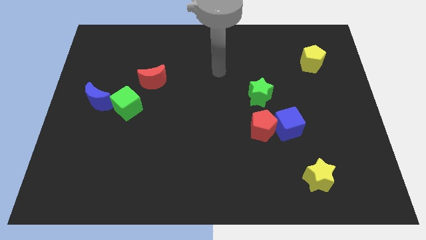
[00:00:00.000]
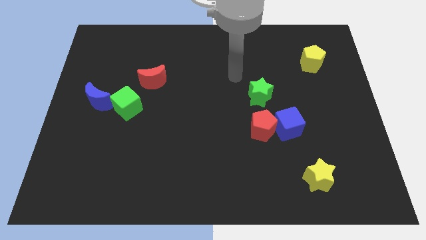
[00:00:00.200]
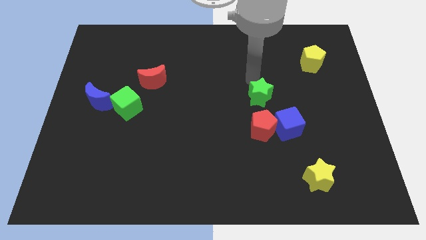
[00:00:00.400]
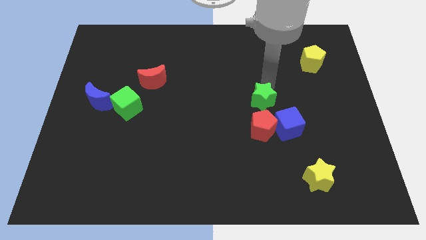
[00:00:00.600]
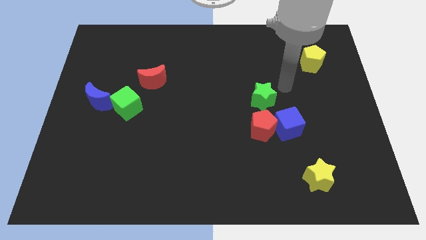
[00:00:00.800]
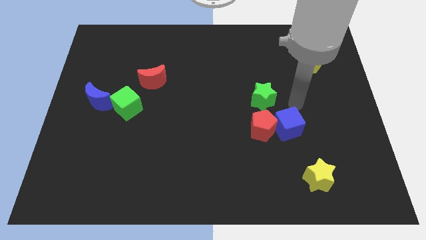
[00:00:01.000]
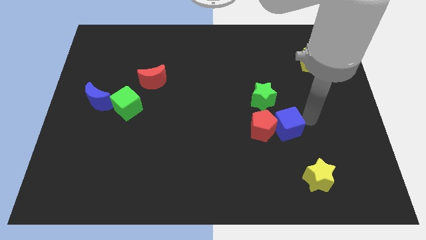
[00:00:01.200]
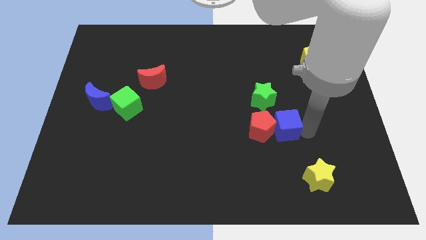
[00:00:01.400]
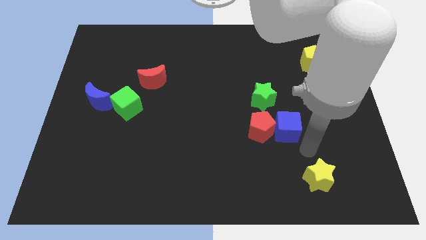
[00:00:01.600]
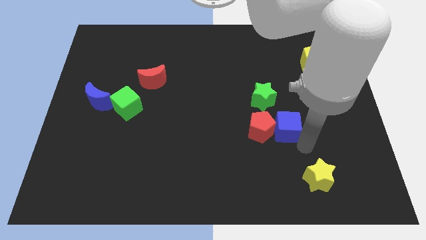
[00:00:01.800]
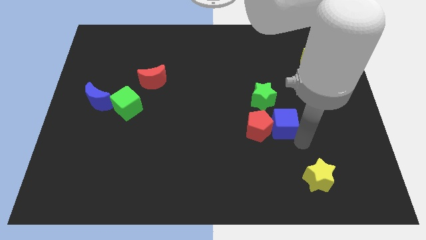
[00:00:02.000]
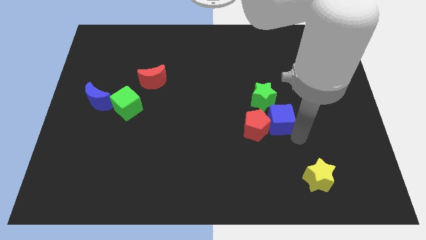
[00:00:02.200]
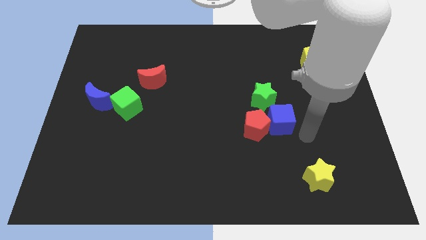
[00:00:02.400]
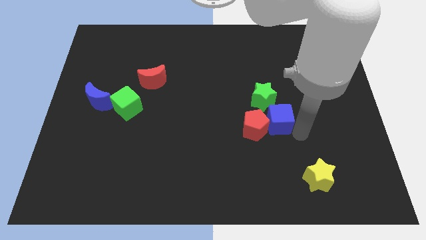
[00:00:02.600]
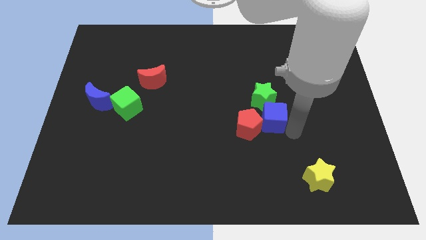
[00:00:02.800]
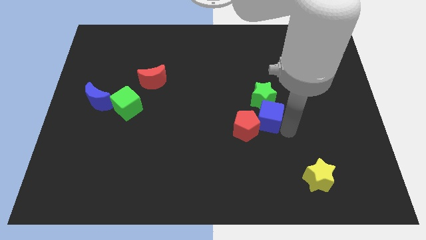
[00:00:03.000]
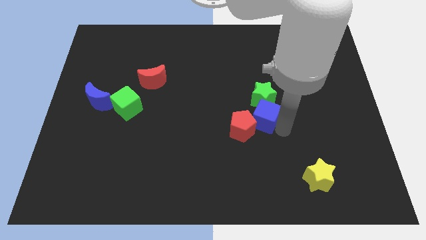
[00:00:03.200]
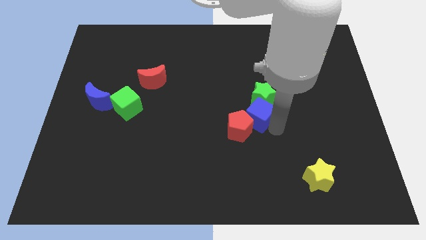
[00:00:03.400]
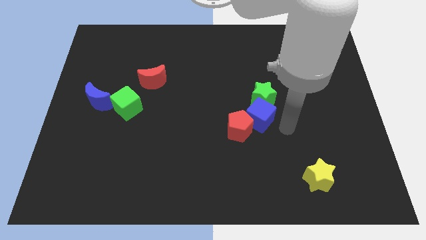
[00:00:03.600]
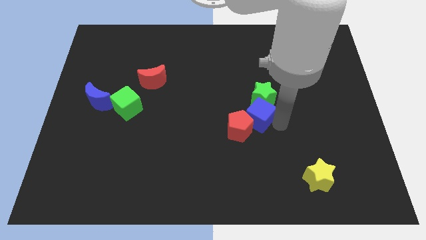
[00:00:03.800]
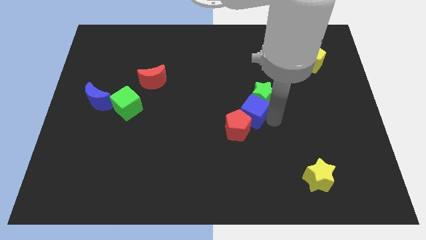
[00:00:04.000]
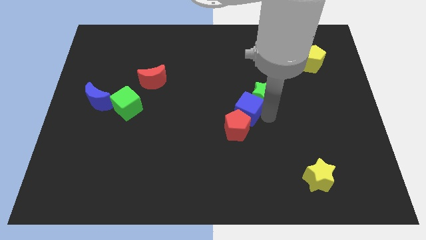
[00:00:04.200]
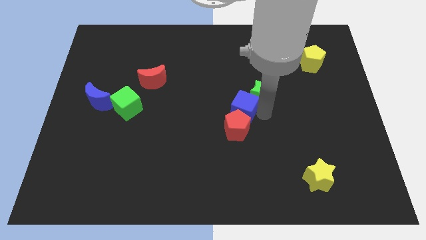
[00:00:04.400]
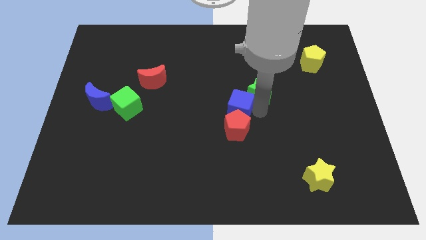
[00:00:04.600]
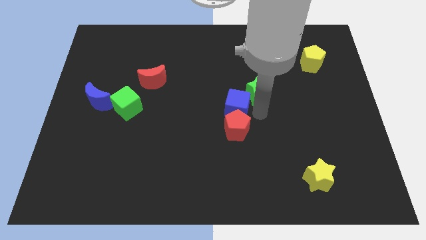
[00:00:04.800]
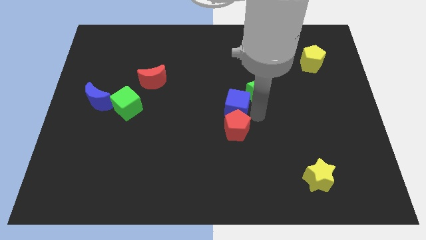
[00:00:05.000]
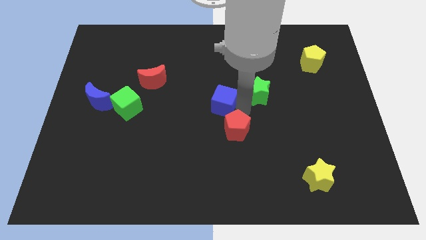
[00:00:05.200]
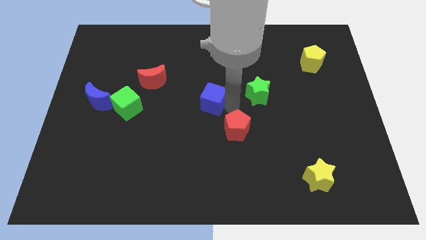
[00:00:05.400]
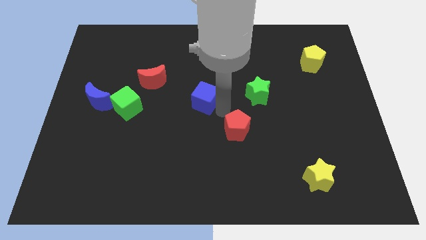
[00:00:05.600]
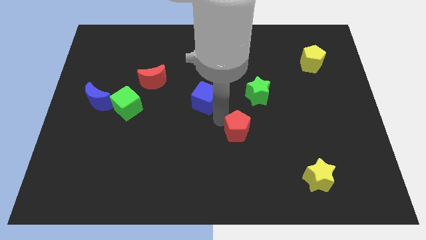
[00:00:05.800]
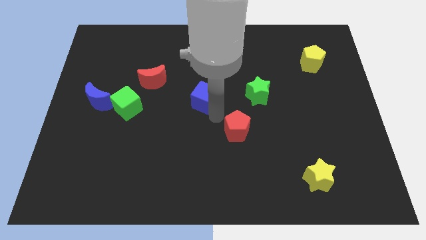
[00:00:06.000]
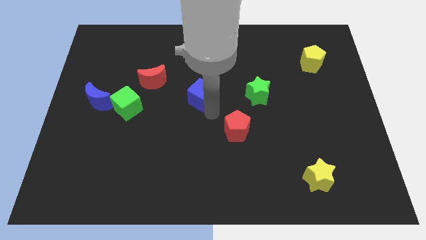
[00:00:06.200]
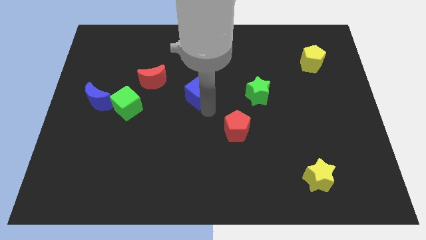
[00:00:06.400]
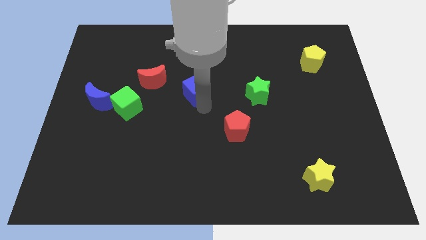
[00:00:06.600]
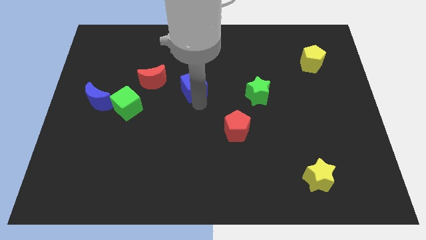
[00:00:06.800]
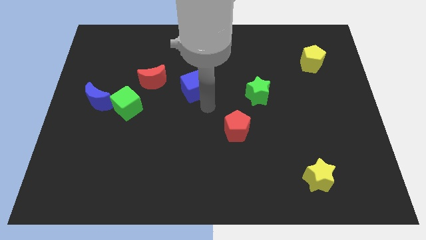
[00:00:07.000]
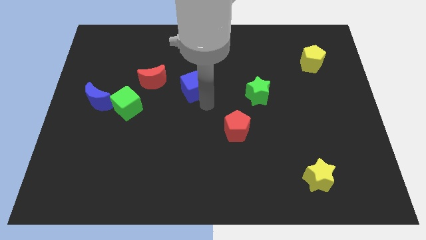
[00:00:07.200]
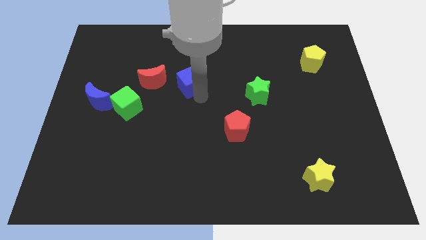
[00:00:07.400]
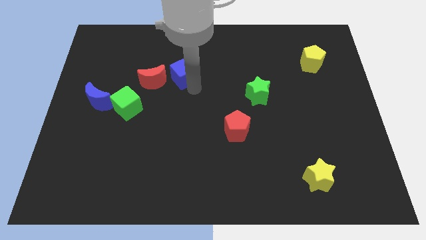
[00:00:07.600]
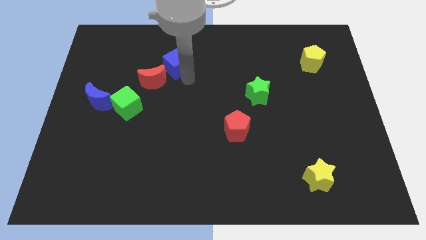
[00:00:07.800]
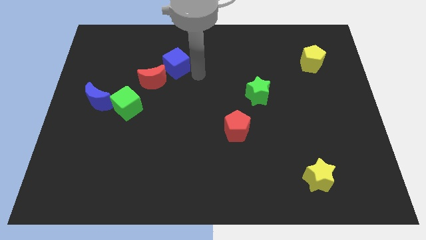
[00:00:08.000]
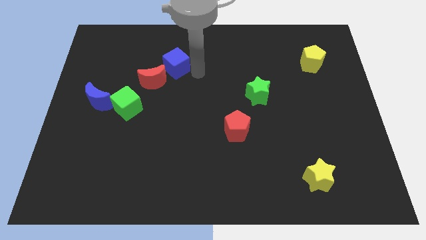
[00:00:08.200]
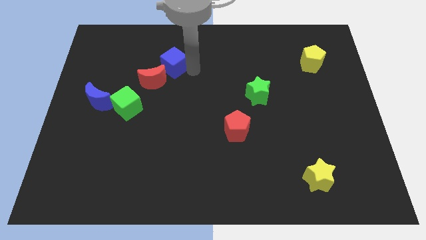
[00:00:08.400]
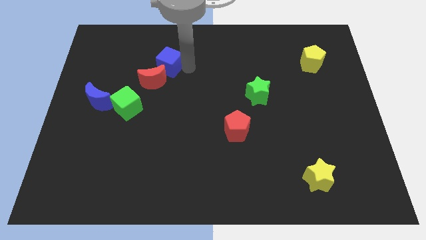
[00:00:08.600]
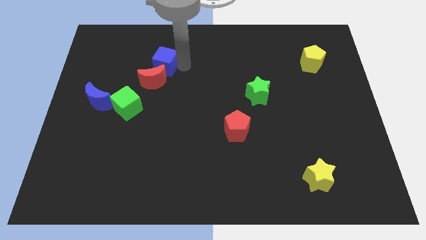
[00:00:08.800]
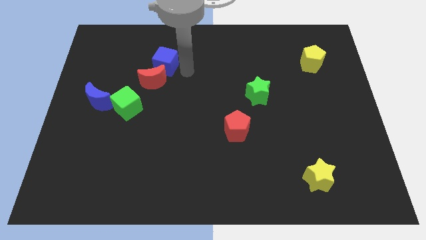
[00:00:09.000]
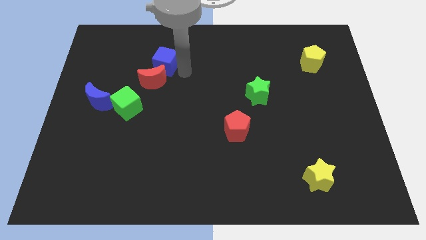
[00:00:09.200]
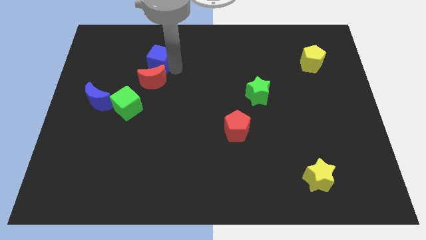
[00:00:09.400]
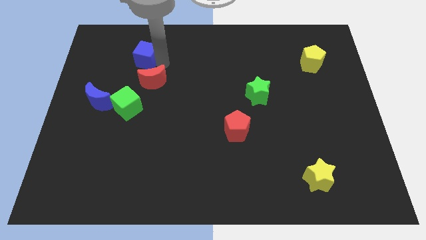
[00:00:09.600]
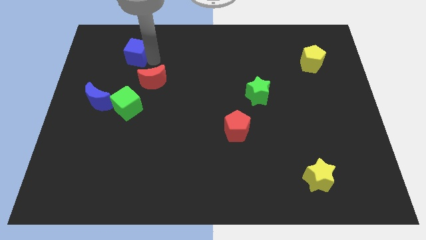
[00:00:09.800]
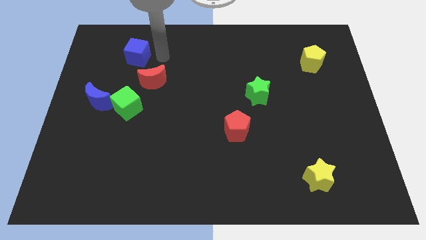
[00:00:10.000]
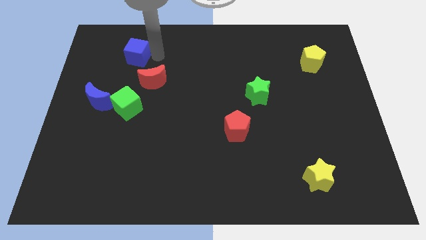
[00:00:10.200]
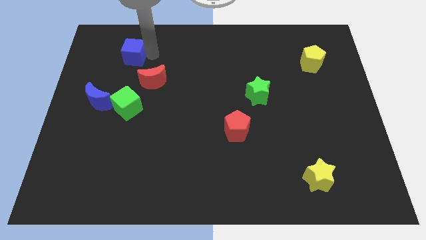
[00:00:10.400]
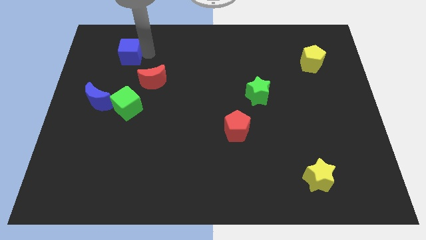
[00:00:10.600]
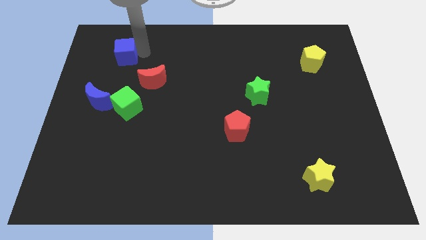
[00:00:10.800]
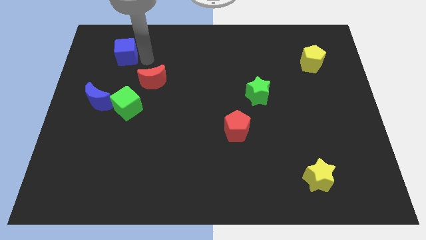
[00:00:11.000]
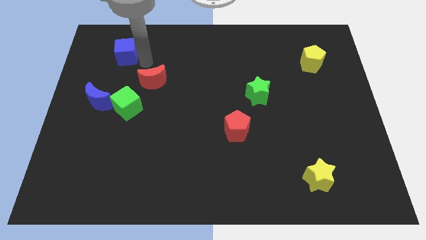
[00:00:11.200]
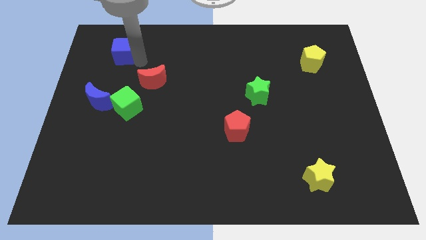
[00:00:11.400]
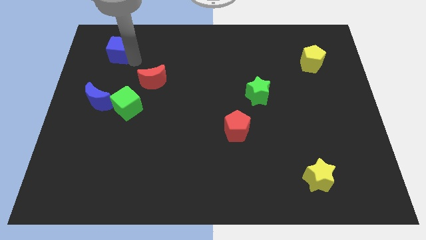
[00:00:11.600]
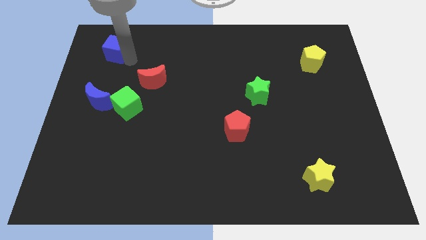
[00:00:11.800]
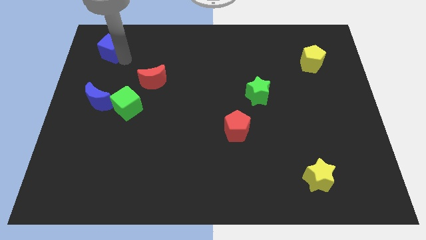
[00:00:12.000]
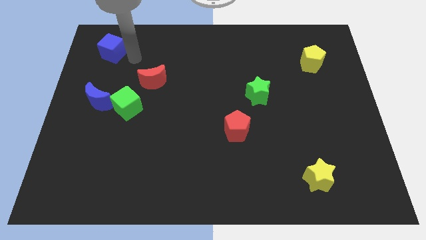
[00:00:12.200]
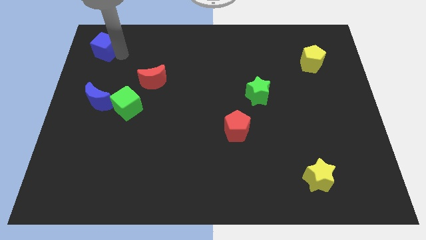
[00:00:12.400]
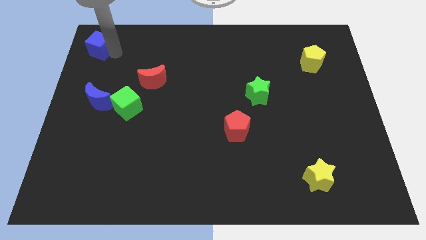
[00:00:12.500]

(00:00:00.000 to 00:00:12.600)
put the blue cube to the top left

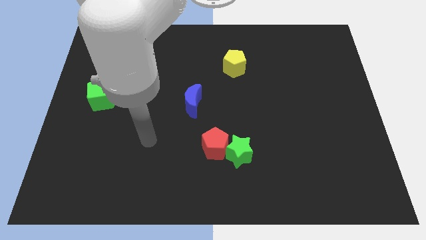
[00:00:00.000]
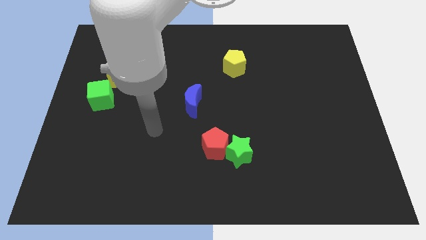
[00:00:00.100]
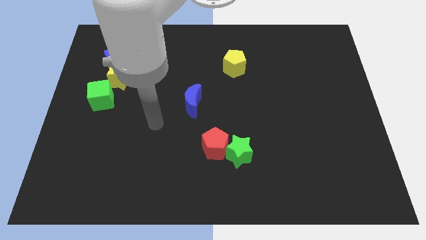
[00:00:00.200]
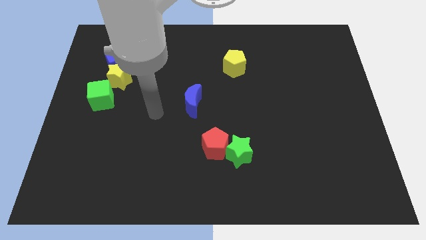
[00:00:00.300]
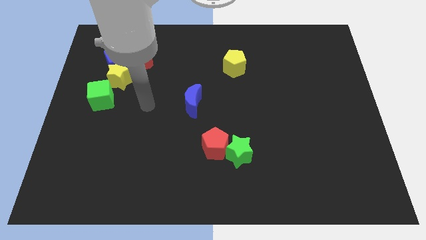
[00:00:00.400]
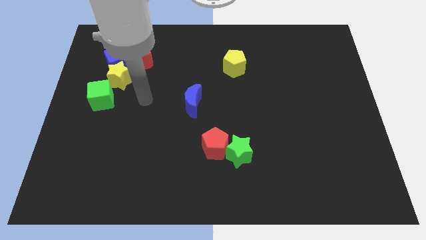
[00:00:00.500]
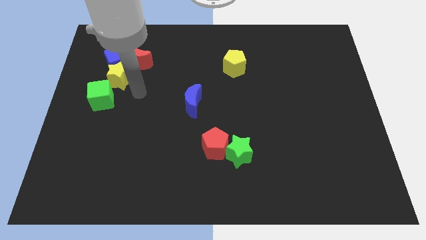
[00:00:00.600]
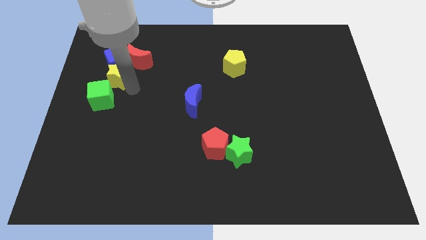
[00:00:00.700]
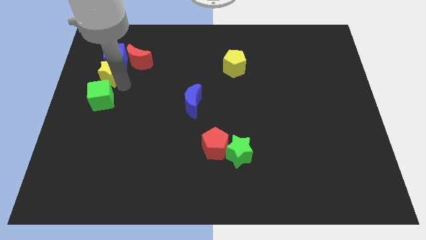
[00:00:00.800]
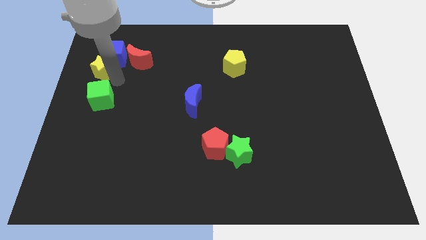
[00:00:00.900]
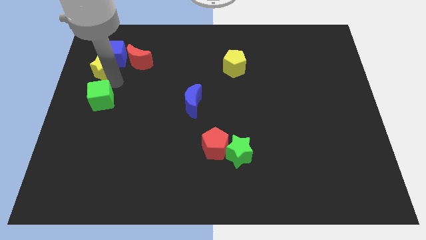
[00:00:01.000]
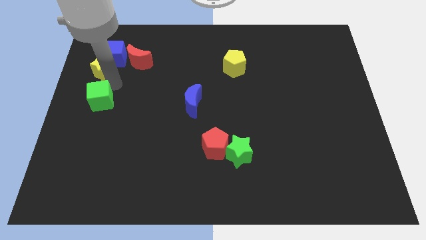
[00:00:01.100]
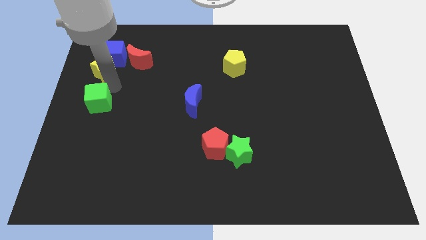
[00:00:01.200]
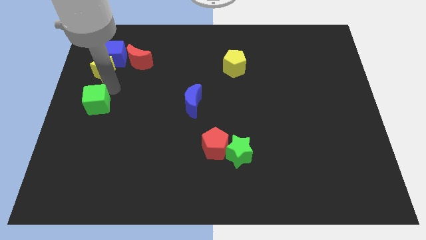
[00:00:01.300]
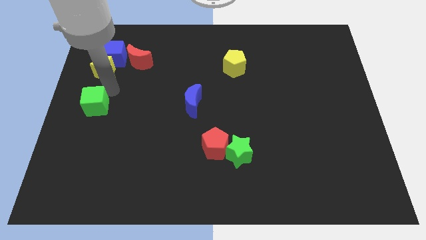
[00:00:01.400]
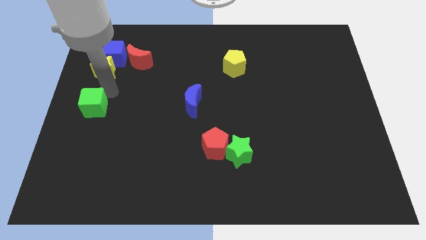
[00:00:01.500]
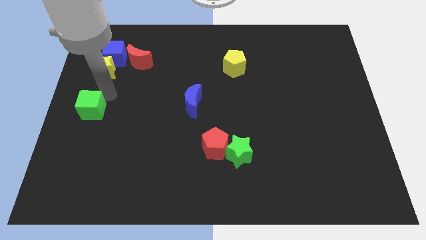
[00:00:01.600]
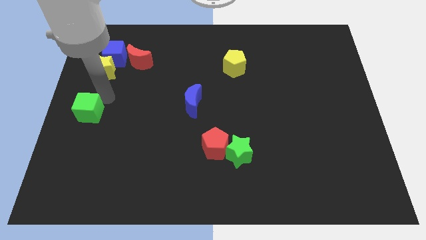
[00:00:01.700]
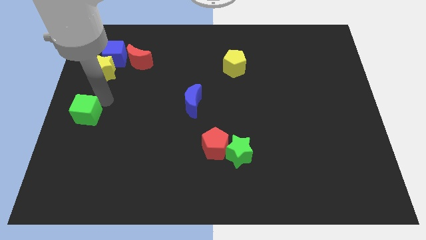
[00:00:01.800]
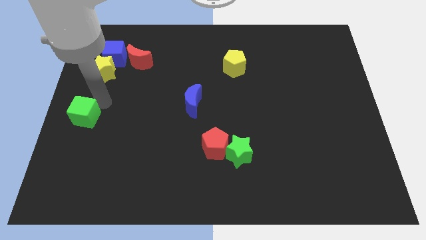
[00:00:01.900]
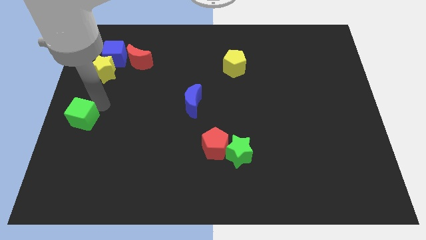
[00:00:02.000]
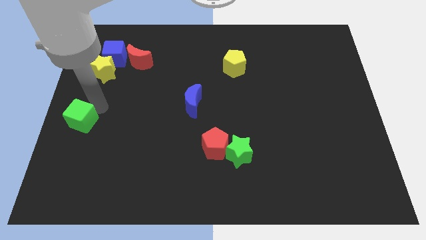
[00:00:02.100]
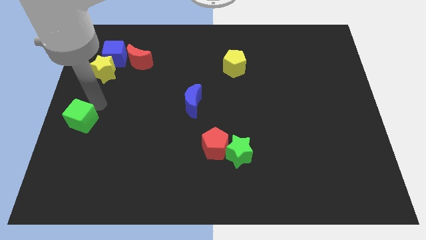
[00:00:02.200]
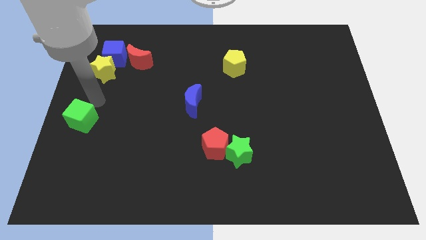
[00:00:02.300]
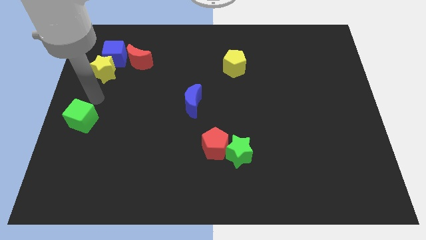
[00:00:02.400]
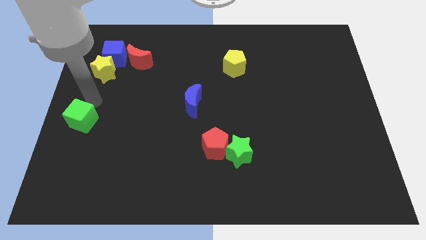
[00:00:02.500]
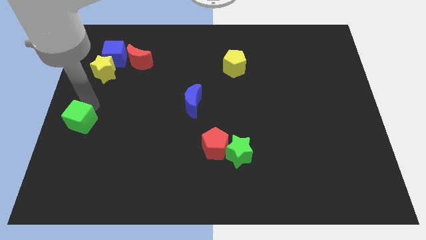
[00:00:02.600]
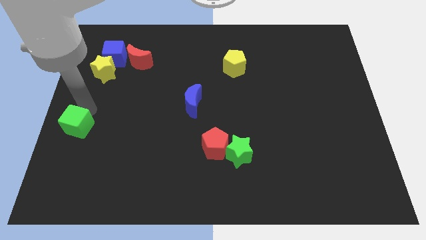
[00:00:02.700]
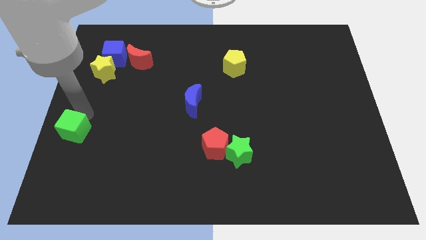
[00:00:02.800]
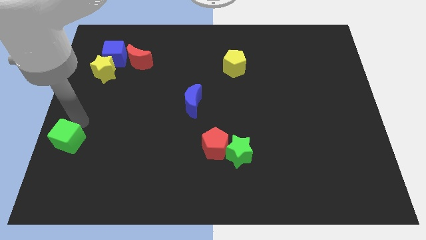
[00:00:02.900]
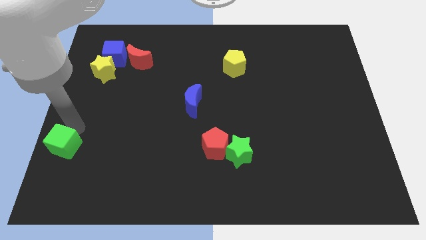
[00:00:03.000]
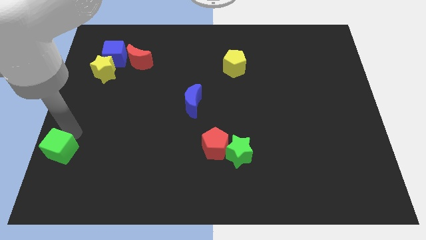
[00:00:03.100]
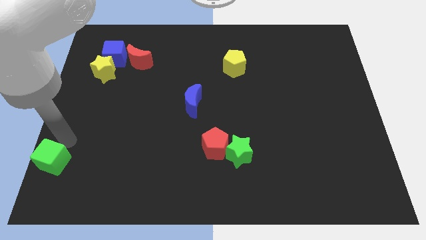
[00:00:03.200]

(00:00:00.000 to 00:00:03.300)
push the green cube to the lower left corner
